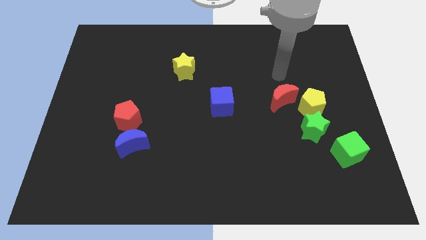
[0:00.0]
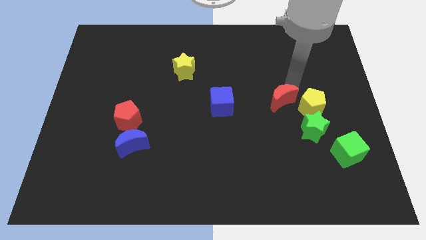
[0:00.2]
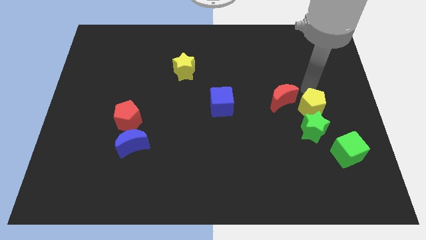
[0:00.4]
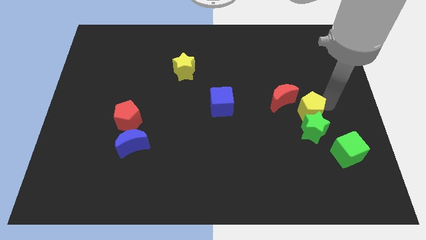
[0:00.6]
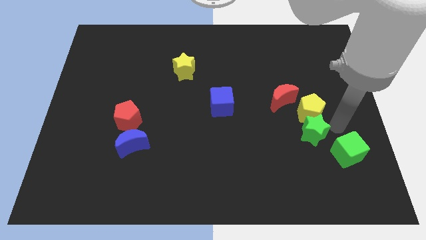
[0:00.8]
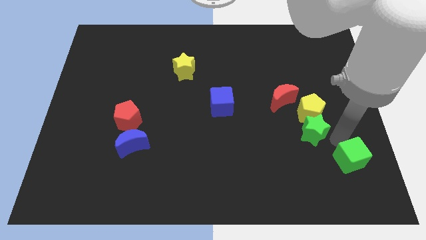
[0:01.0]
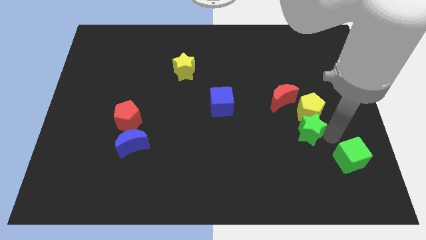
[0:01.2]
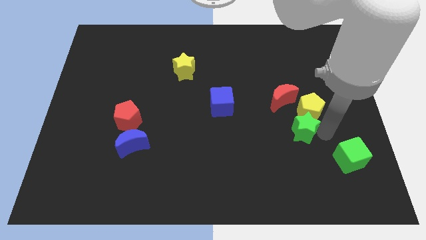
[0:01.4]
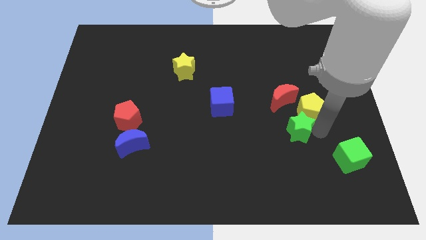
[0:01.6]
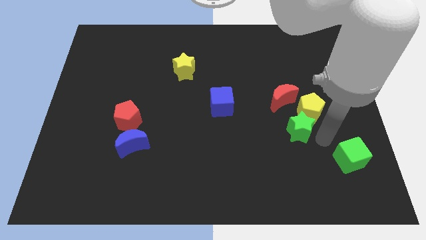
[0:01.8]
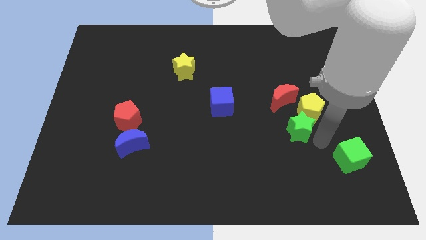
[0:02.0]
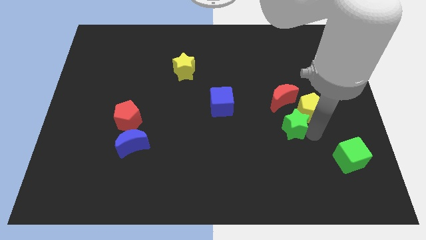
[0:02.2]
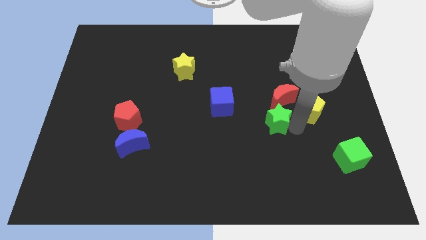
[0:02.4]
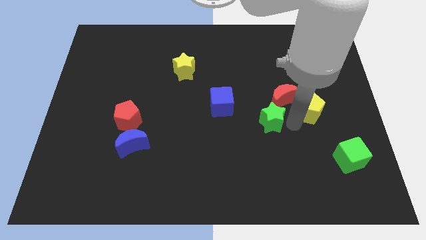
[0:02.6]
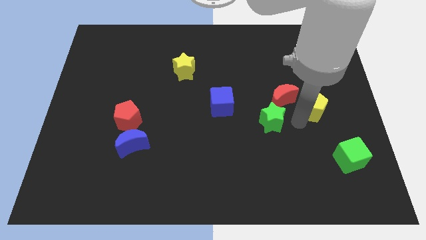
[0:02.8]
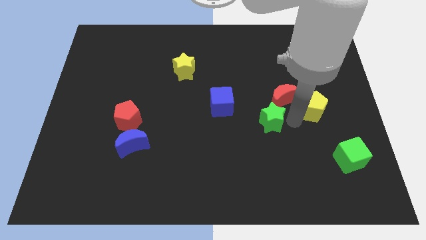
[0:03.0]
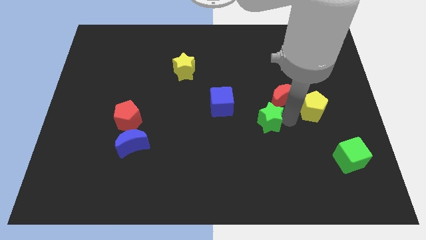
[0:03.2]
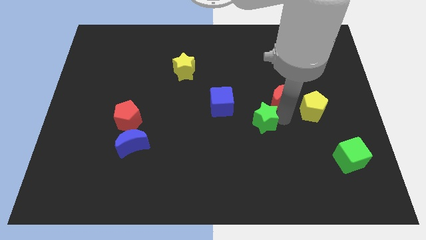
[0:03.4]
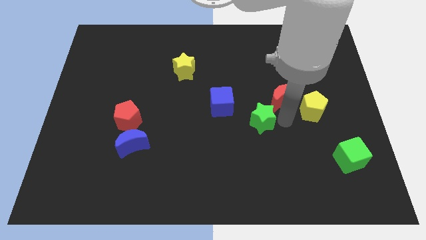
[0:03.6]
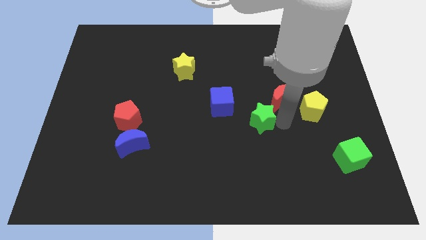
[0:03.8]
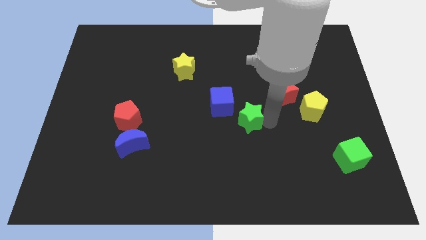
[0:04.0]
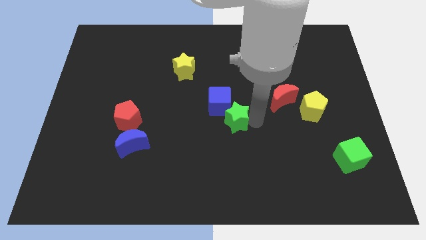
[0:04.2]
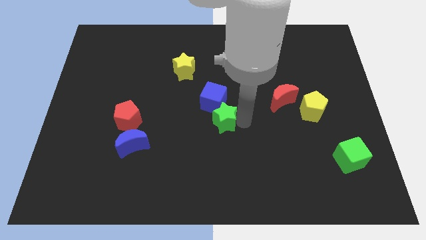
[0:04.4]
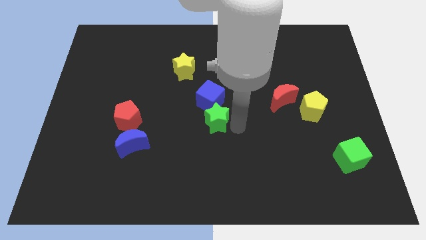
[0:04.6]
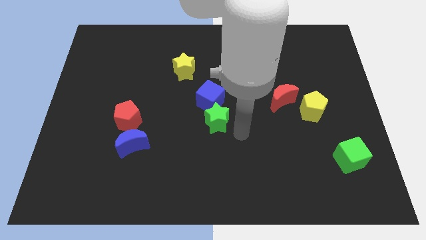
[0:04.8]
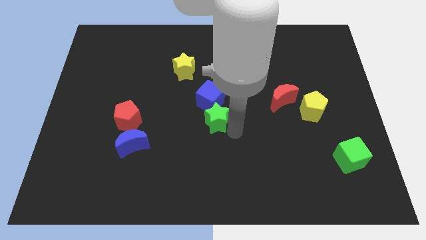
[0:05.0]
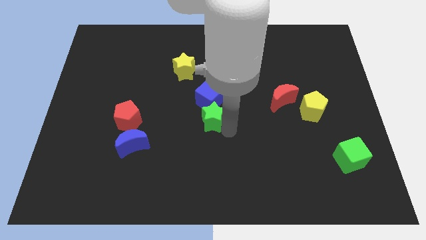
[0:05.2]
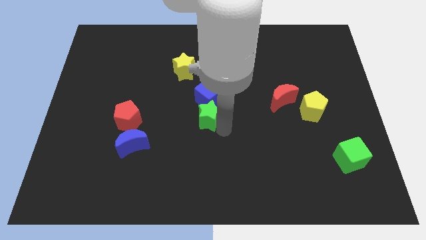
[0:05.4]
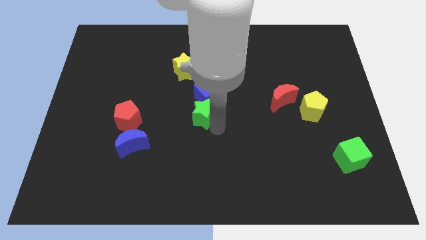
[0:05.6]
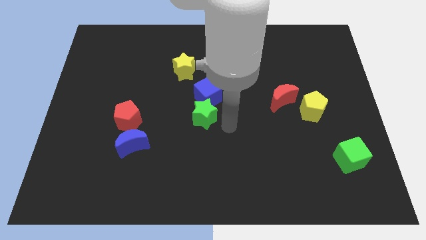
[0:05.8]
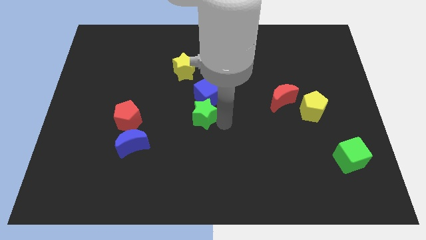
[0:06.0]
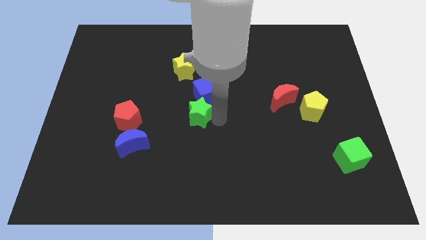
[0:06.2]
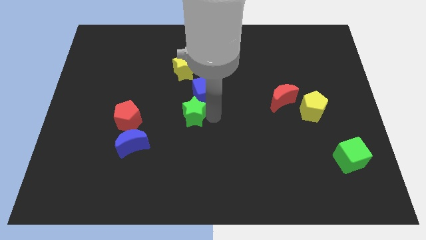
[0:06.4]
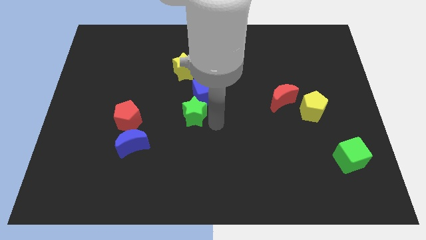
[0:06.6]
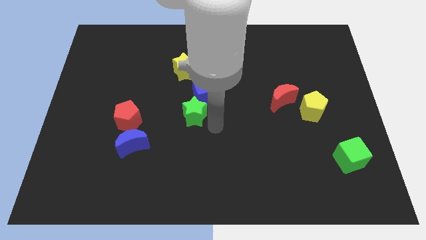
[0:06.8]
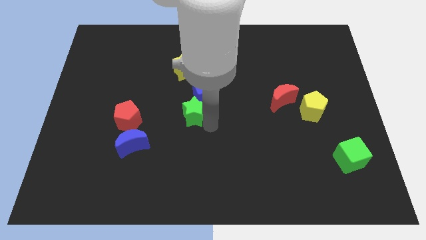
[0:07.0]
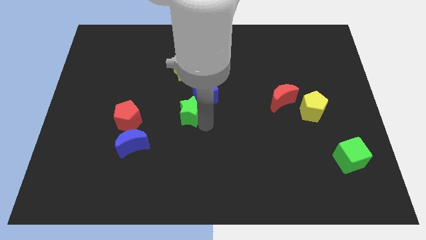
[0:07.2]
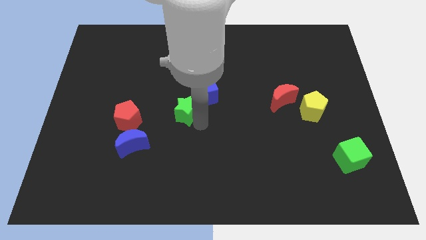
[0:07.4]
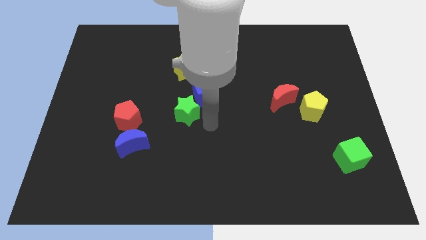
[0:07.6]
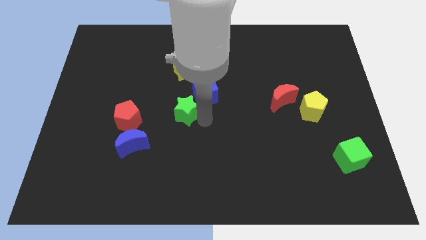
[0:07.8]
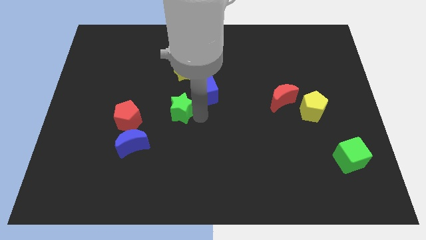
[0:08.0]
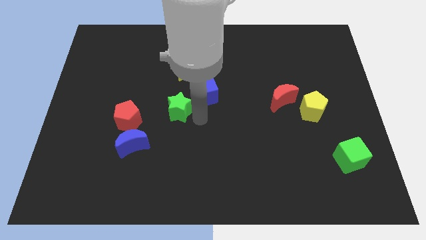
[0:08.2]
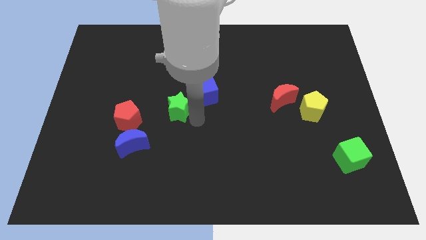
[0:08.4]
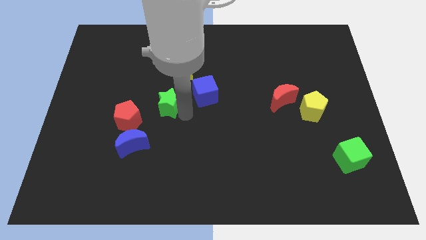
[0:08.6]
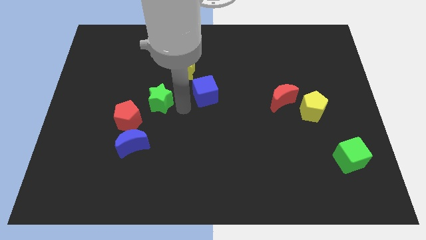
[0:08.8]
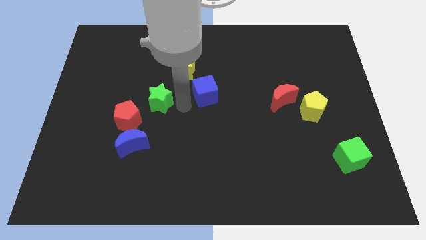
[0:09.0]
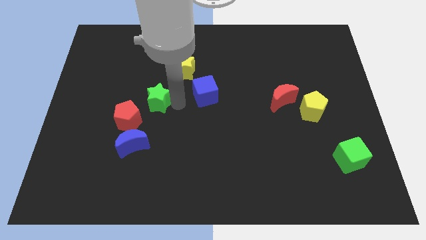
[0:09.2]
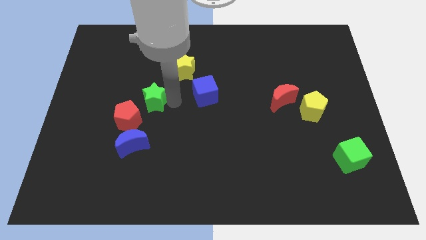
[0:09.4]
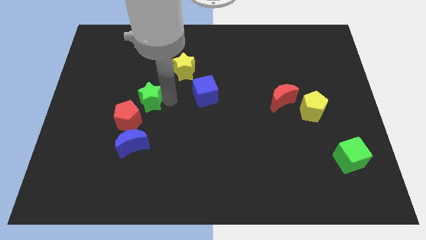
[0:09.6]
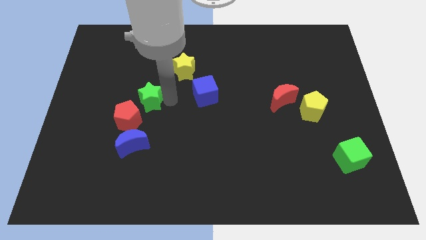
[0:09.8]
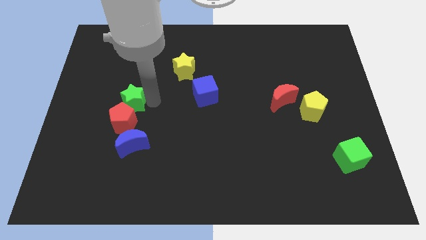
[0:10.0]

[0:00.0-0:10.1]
slide the green star to the top left side of the red pentagon

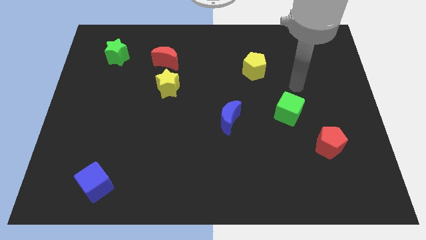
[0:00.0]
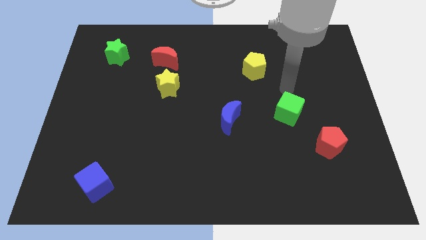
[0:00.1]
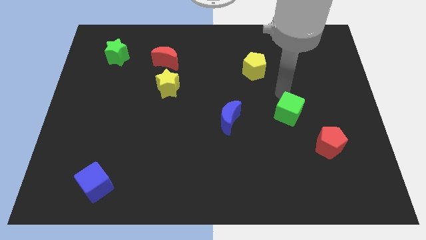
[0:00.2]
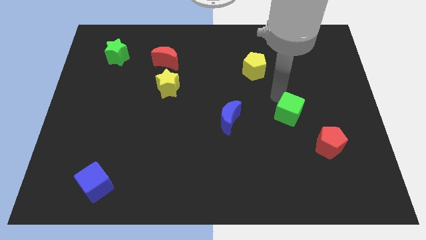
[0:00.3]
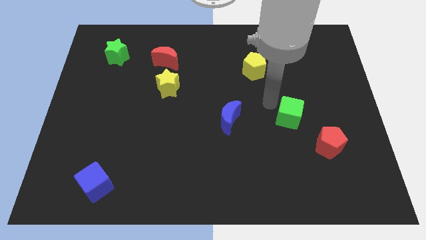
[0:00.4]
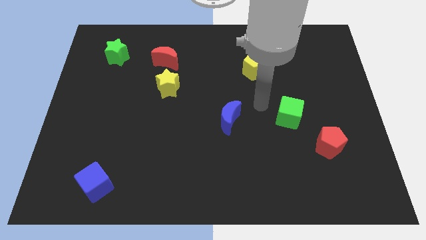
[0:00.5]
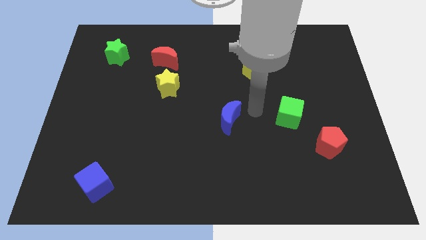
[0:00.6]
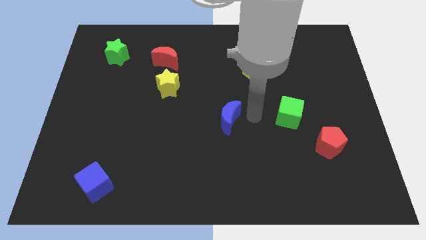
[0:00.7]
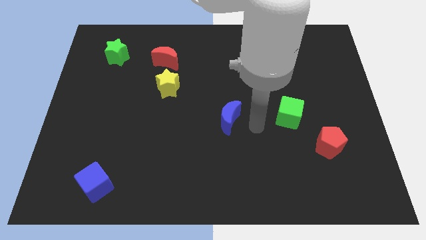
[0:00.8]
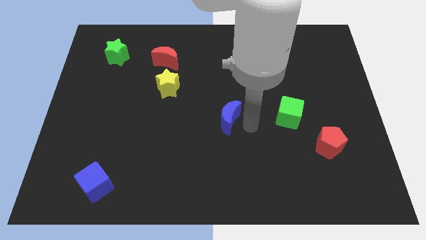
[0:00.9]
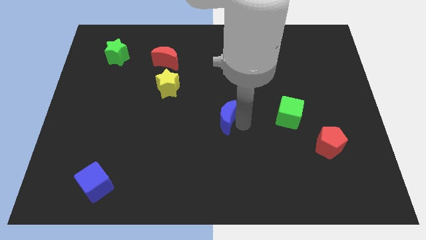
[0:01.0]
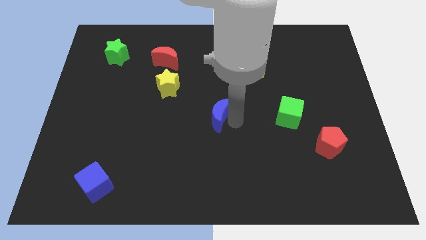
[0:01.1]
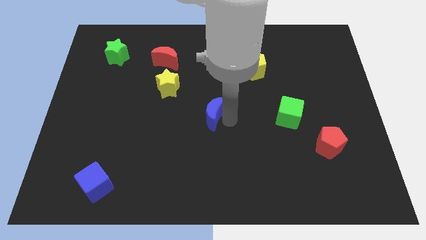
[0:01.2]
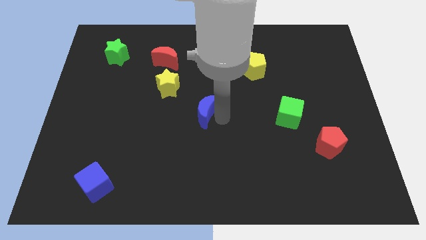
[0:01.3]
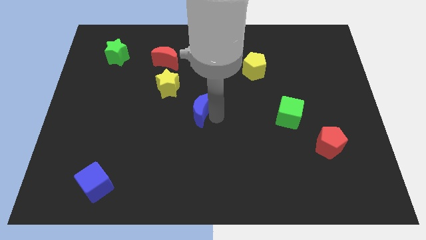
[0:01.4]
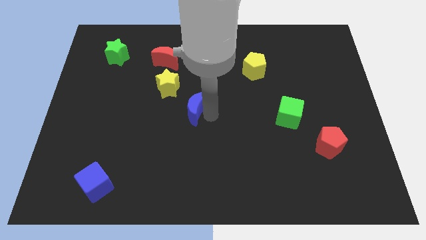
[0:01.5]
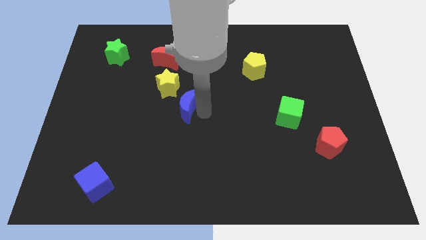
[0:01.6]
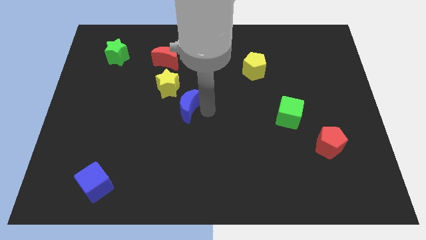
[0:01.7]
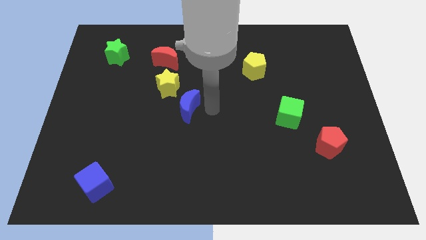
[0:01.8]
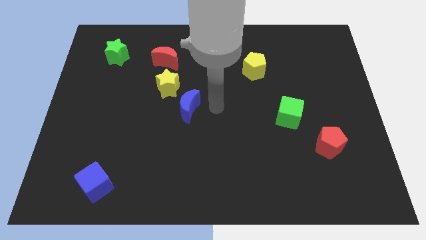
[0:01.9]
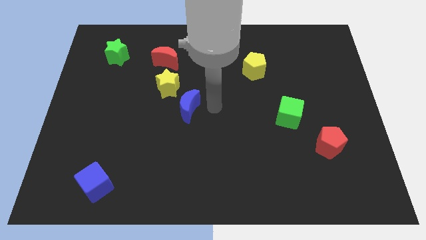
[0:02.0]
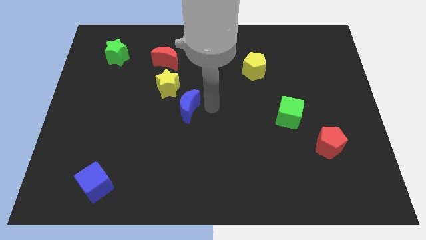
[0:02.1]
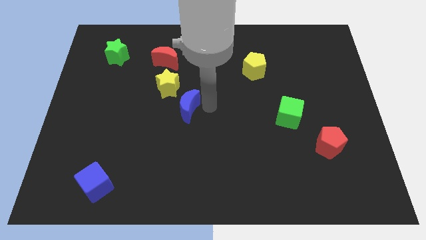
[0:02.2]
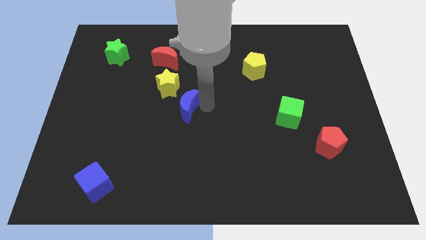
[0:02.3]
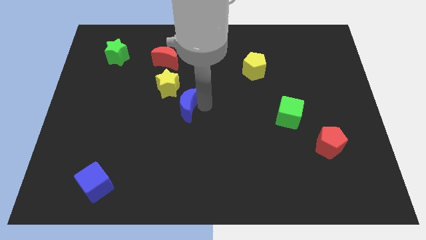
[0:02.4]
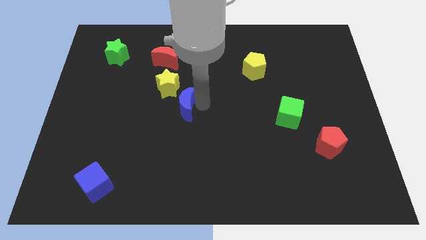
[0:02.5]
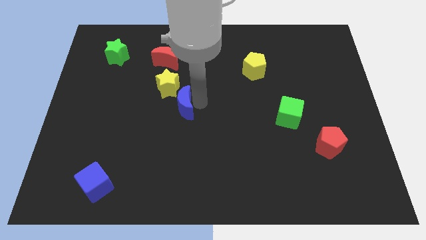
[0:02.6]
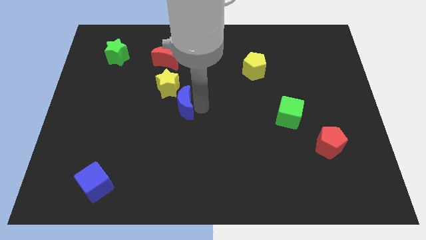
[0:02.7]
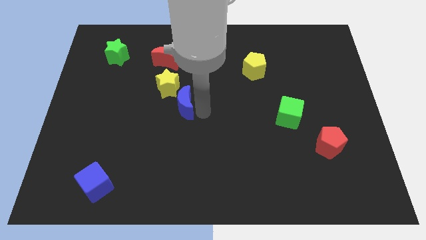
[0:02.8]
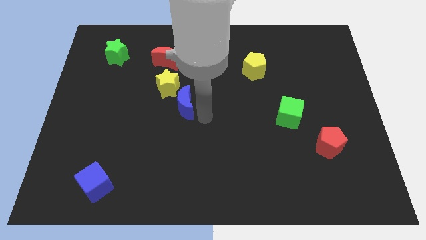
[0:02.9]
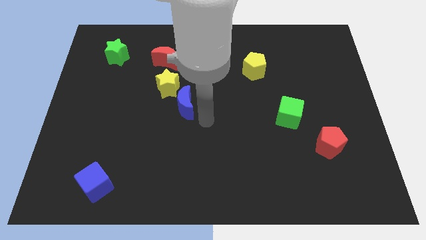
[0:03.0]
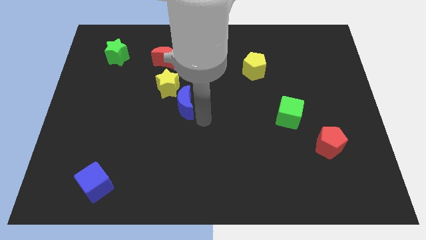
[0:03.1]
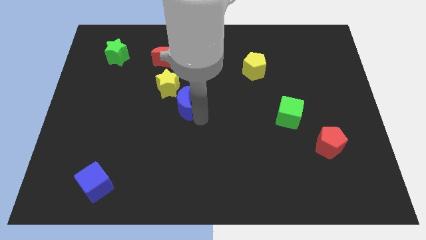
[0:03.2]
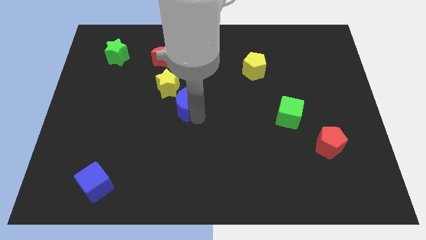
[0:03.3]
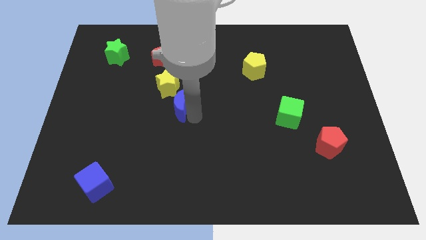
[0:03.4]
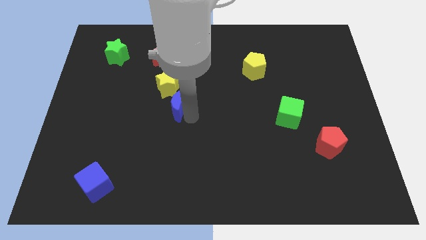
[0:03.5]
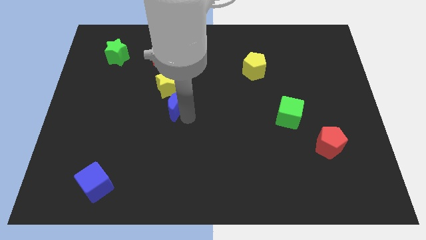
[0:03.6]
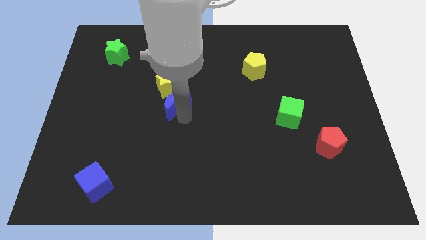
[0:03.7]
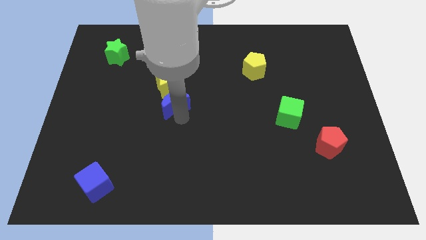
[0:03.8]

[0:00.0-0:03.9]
put the blue moon to the bottom of the red moon
